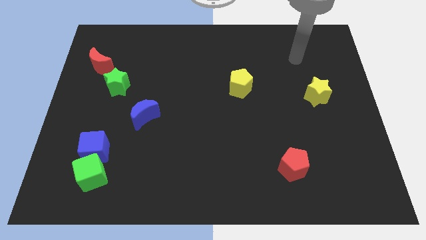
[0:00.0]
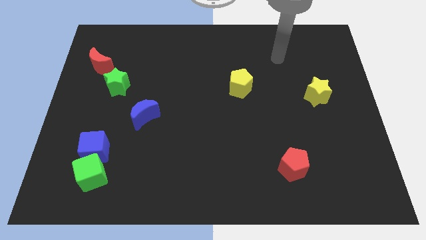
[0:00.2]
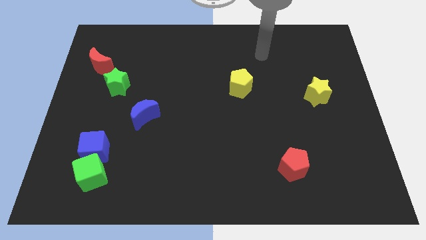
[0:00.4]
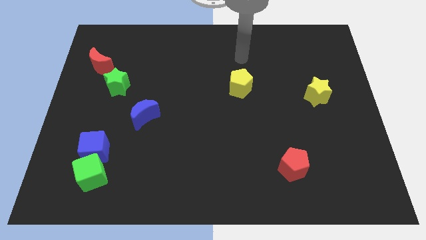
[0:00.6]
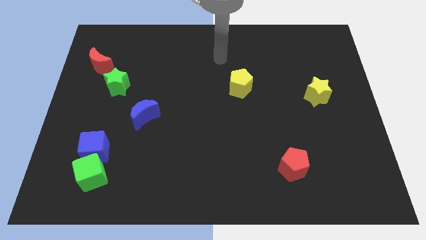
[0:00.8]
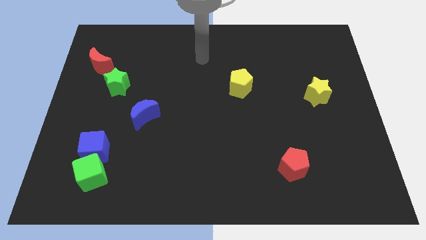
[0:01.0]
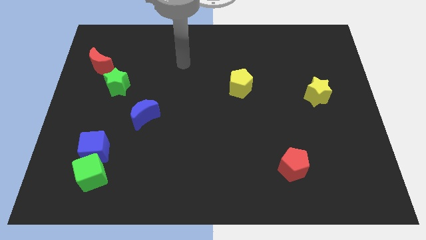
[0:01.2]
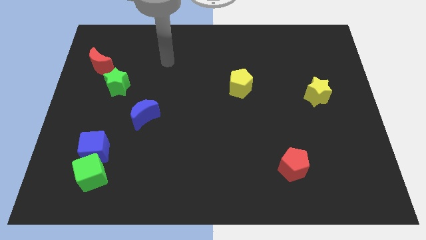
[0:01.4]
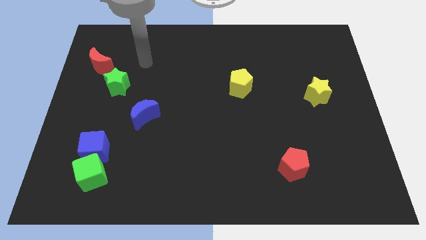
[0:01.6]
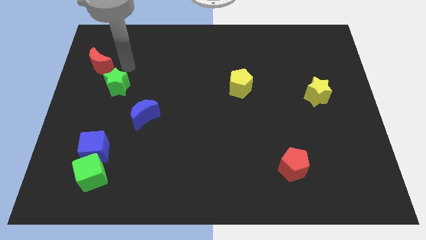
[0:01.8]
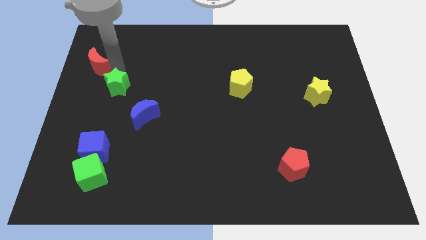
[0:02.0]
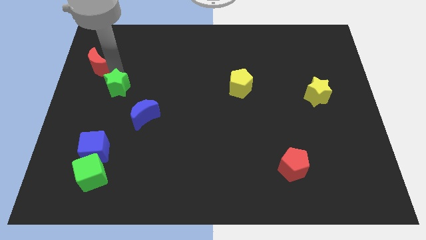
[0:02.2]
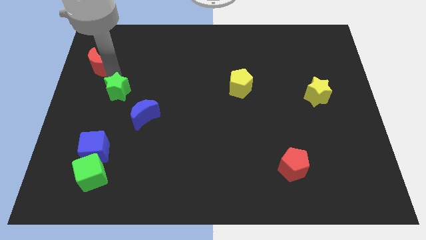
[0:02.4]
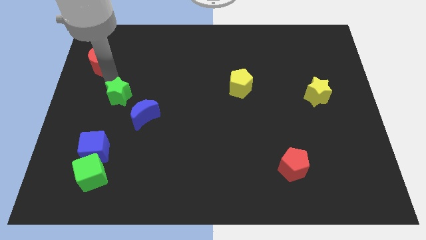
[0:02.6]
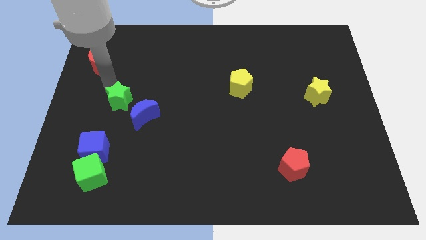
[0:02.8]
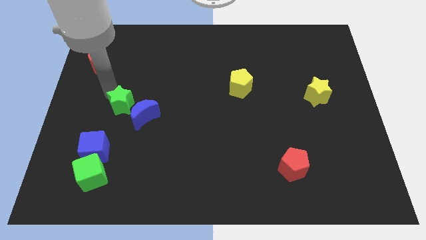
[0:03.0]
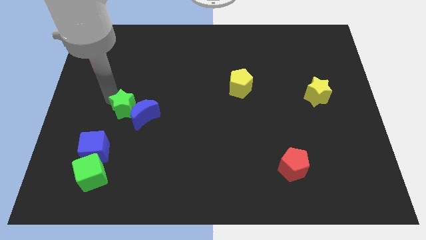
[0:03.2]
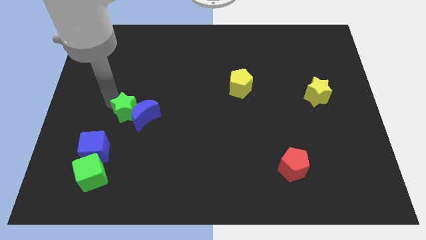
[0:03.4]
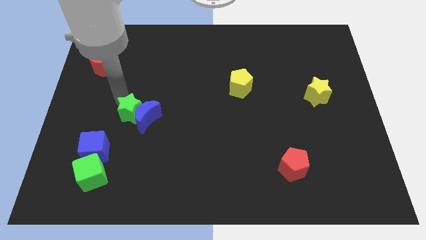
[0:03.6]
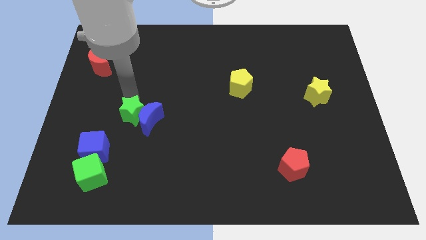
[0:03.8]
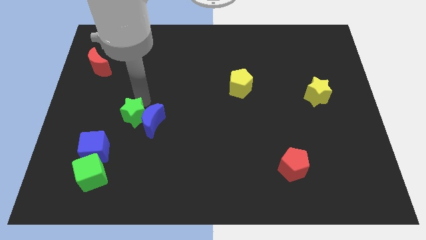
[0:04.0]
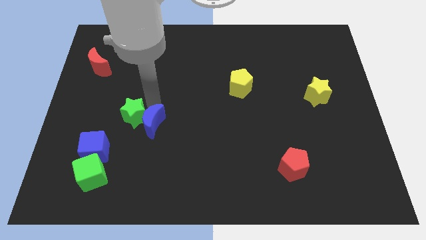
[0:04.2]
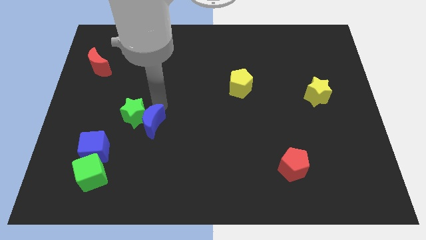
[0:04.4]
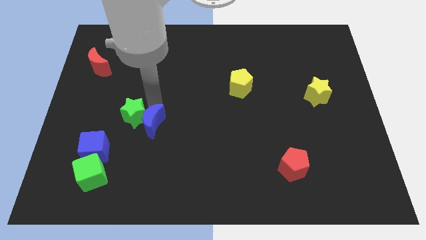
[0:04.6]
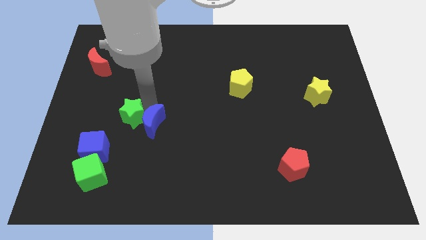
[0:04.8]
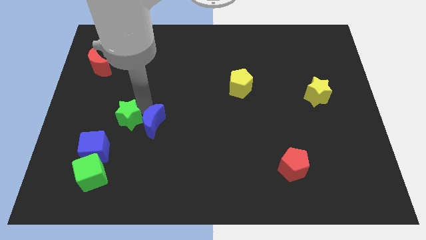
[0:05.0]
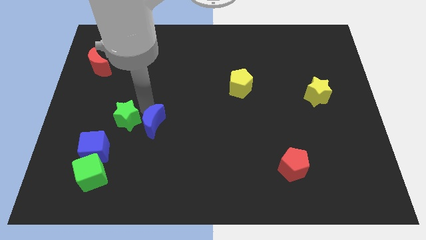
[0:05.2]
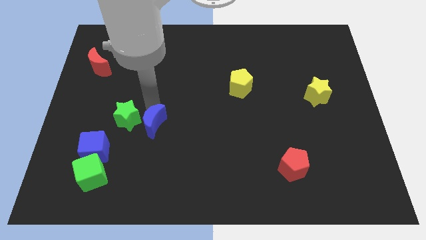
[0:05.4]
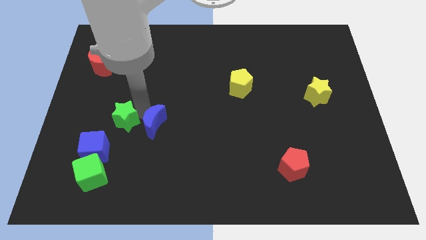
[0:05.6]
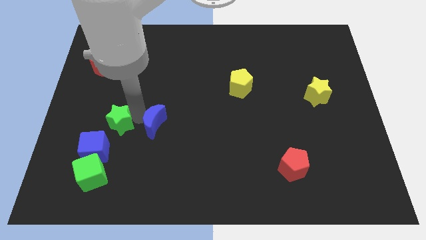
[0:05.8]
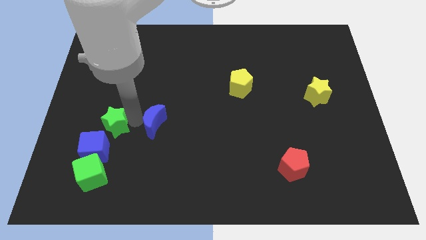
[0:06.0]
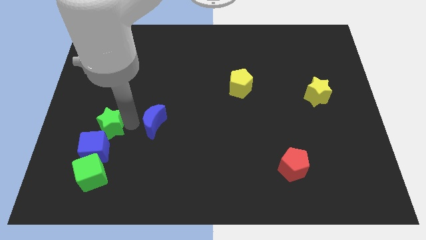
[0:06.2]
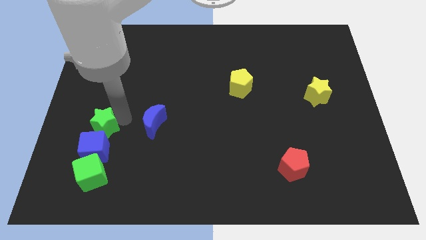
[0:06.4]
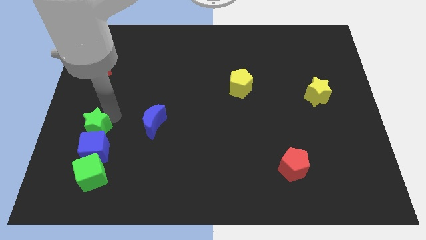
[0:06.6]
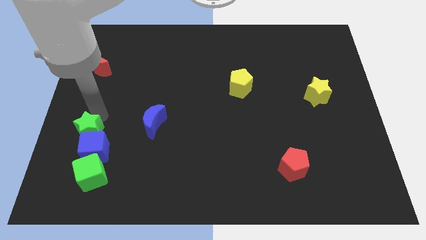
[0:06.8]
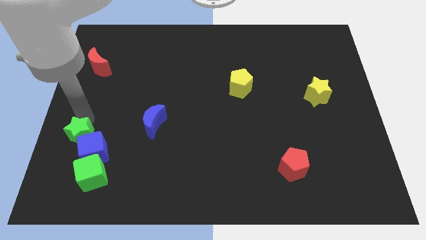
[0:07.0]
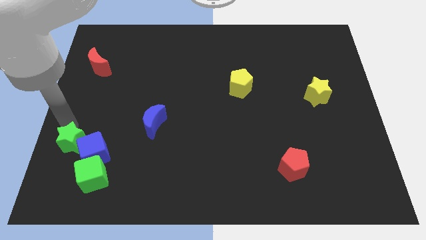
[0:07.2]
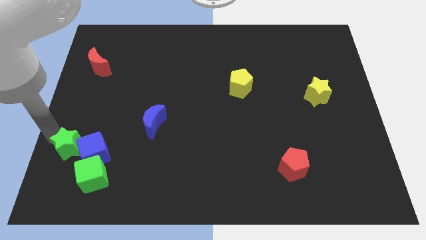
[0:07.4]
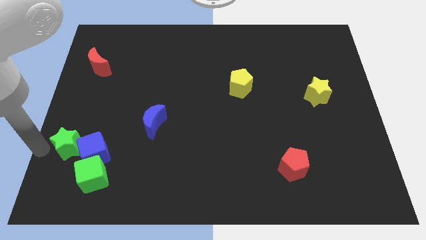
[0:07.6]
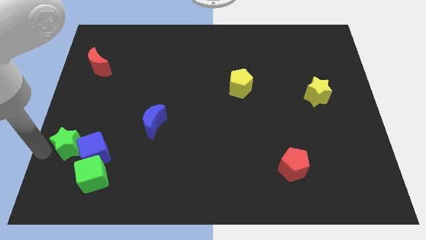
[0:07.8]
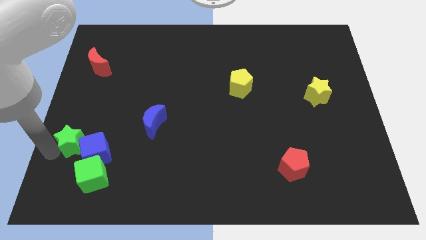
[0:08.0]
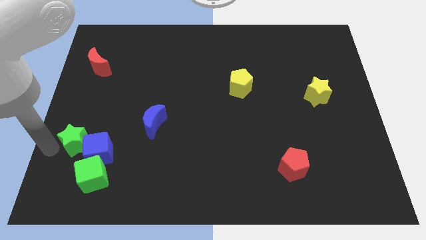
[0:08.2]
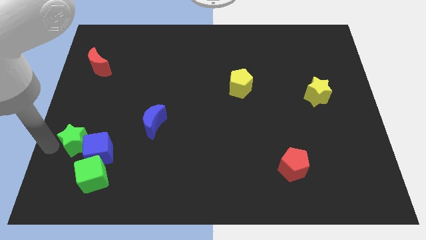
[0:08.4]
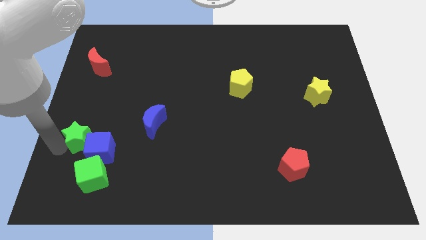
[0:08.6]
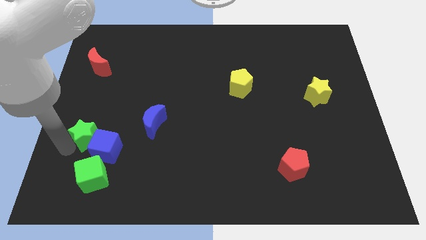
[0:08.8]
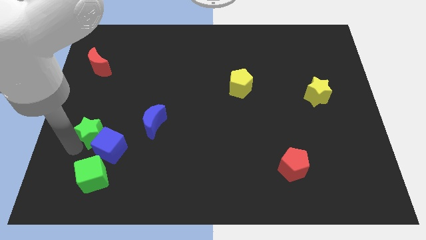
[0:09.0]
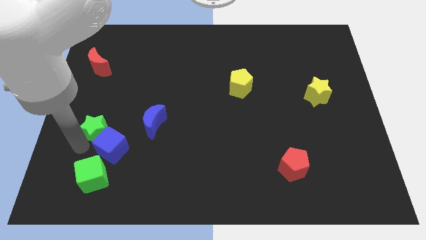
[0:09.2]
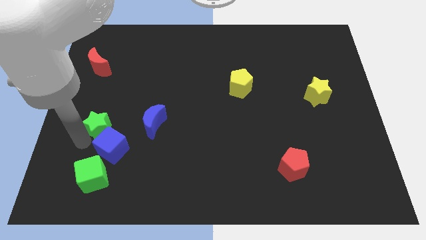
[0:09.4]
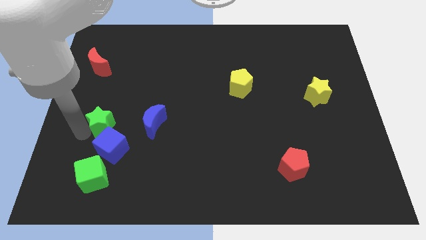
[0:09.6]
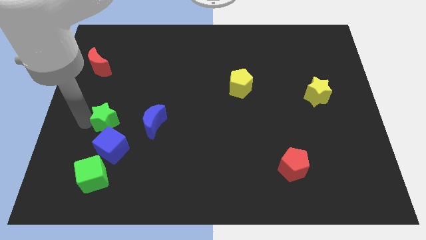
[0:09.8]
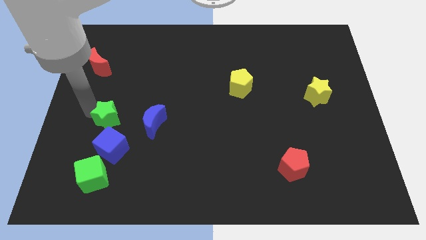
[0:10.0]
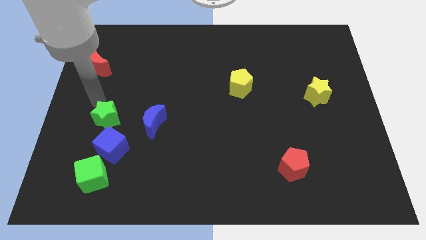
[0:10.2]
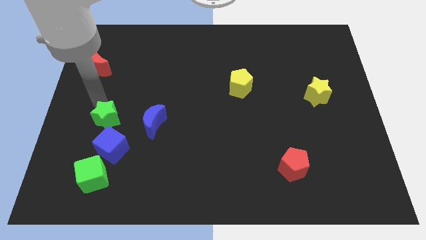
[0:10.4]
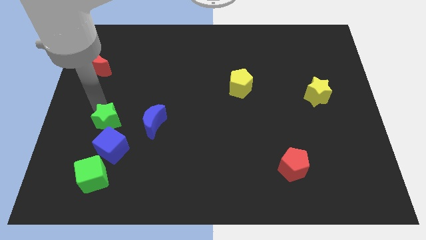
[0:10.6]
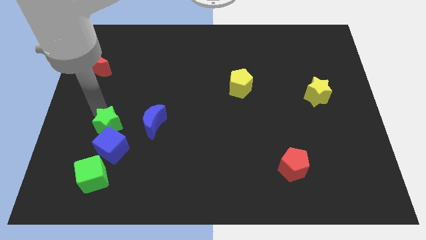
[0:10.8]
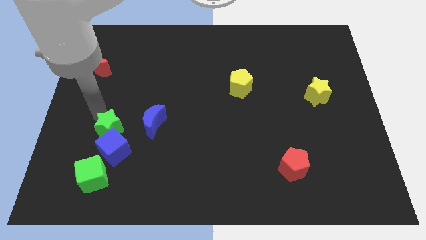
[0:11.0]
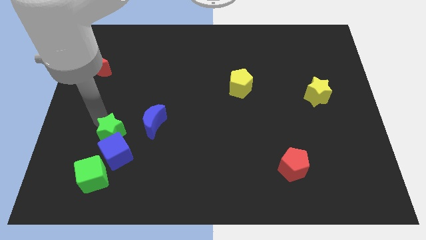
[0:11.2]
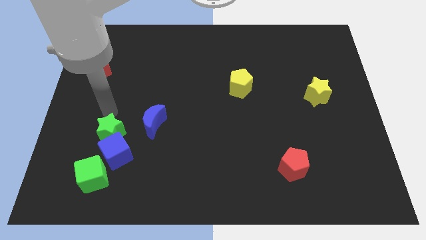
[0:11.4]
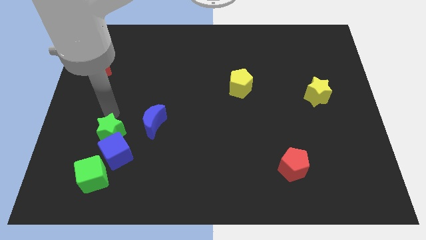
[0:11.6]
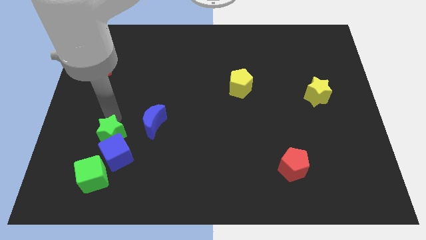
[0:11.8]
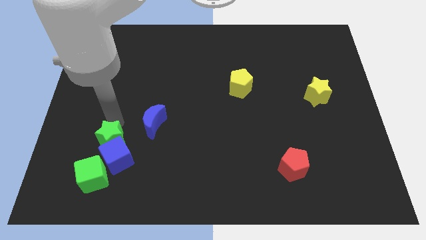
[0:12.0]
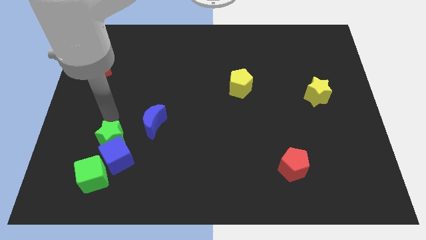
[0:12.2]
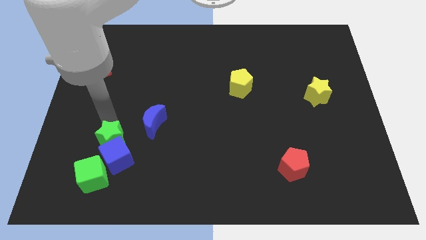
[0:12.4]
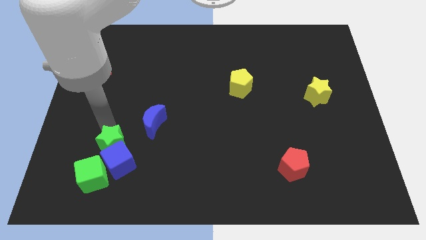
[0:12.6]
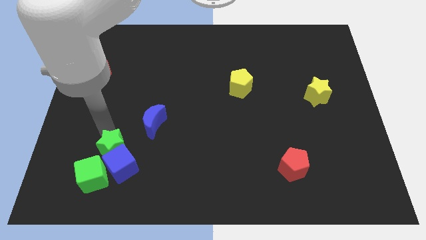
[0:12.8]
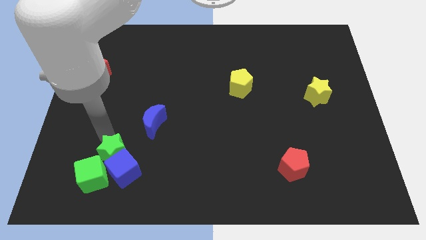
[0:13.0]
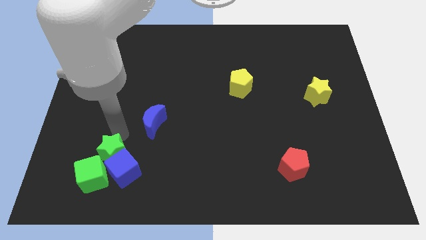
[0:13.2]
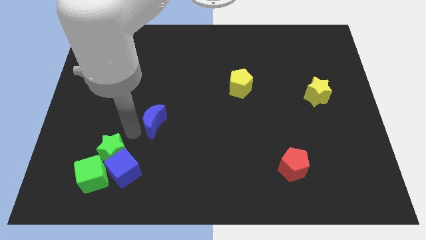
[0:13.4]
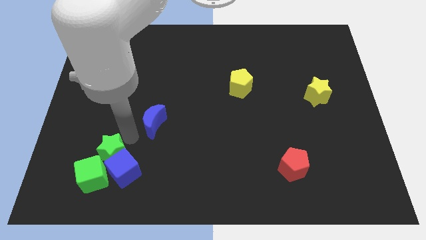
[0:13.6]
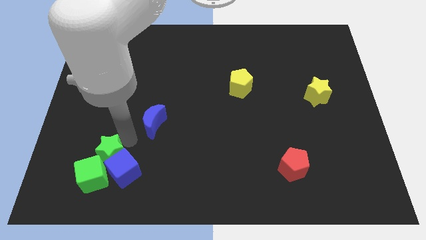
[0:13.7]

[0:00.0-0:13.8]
move the green star towards the green cube
